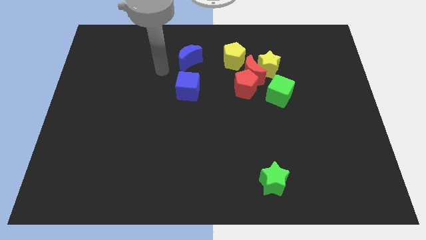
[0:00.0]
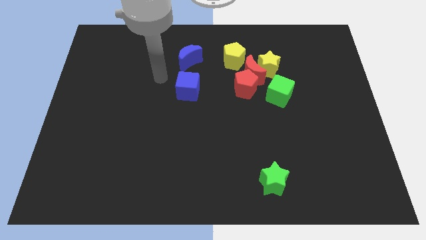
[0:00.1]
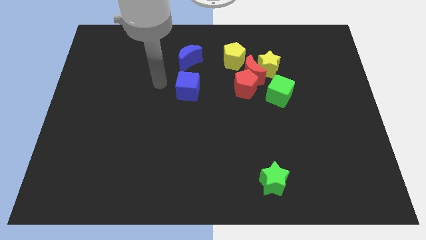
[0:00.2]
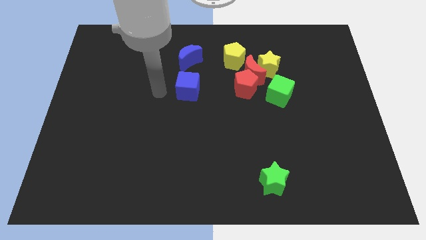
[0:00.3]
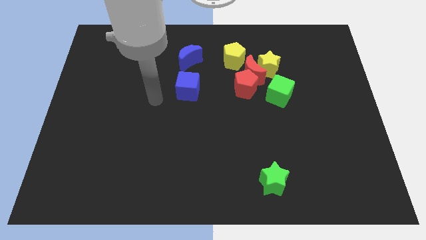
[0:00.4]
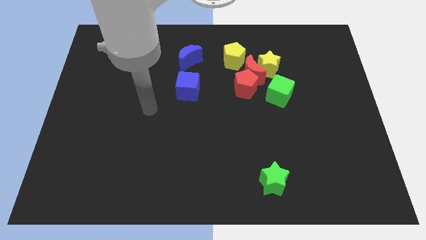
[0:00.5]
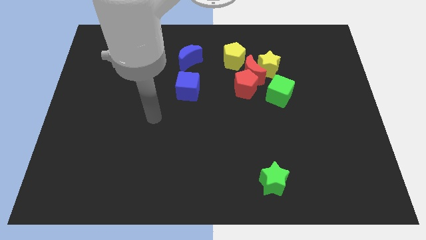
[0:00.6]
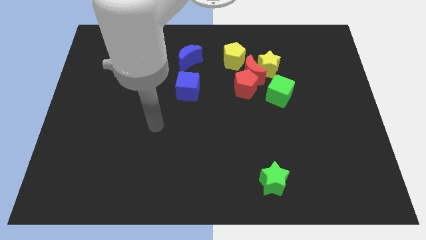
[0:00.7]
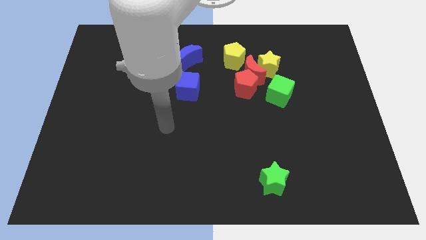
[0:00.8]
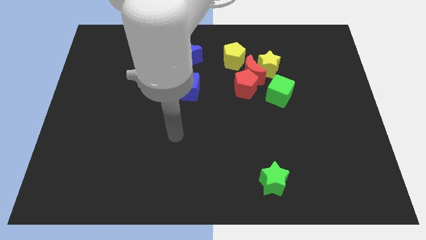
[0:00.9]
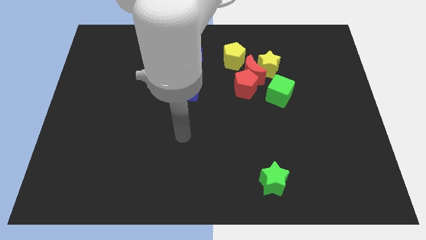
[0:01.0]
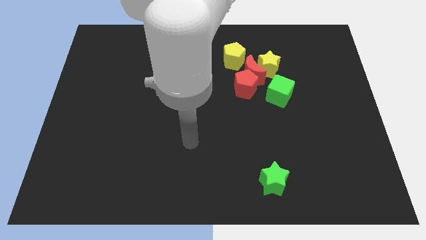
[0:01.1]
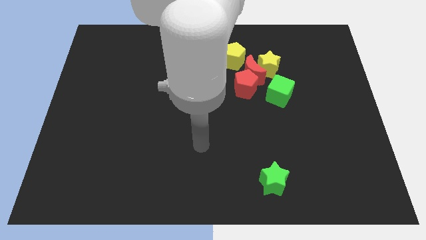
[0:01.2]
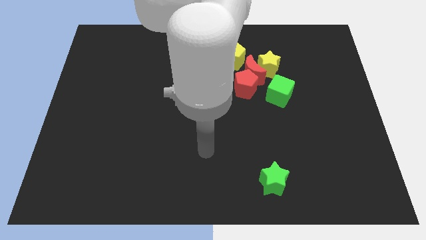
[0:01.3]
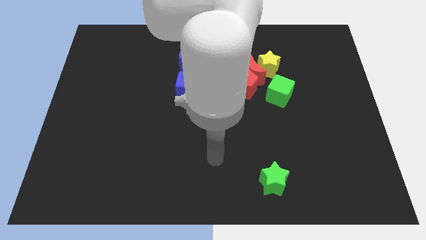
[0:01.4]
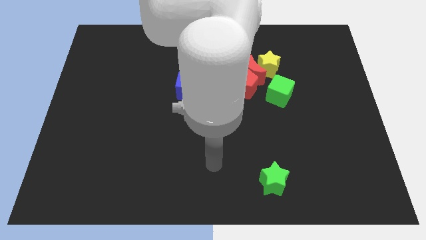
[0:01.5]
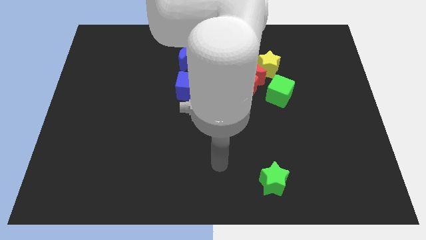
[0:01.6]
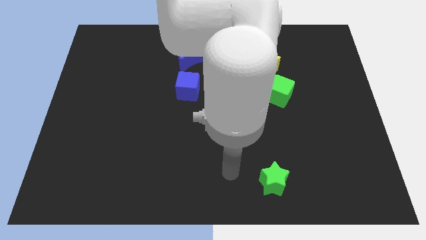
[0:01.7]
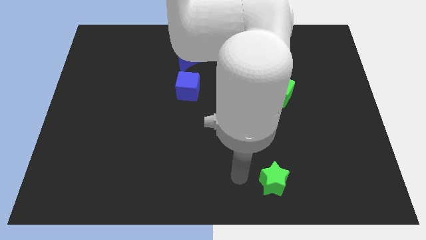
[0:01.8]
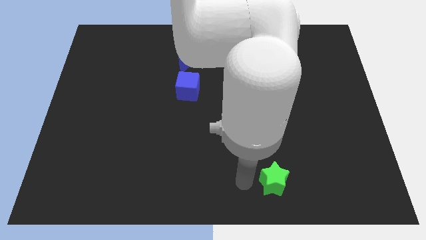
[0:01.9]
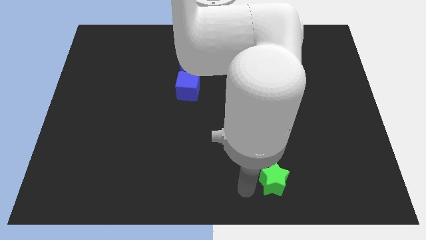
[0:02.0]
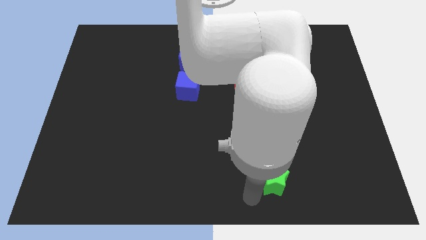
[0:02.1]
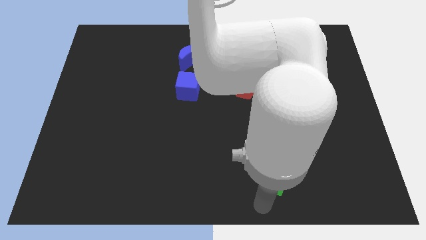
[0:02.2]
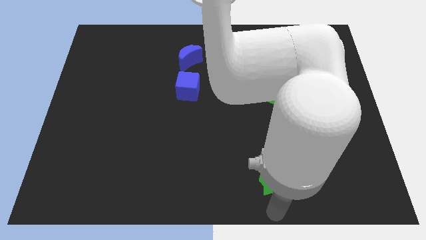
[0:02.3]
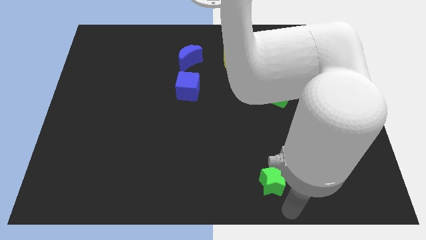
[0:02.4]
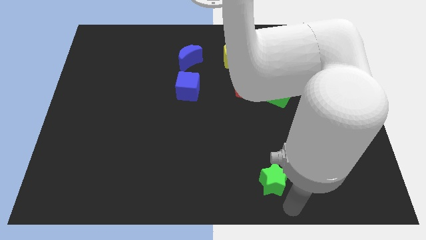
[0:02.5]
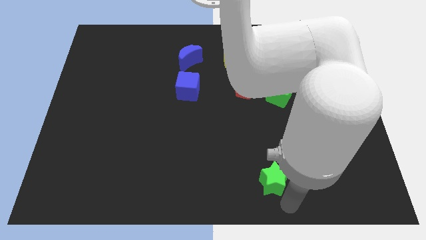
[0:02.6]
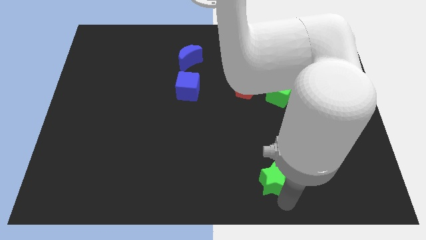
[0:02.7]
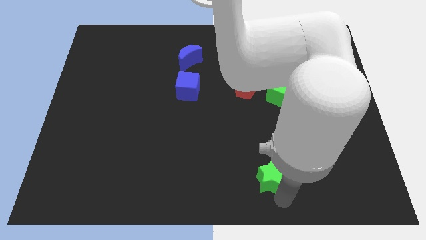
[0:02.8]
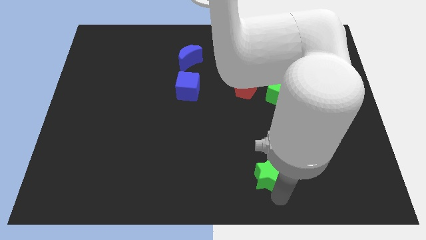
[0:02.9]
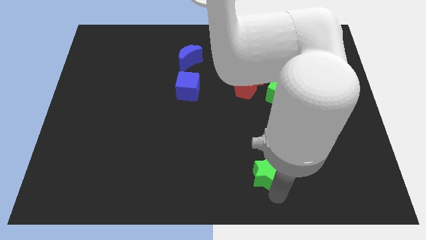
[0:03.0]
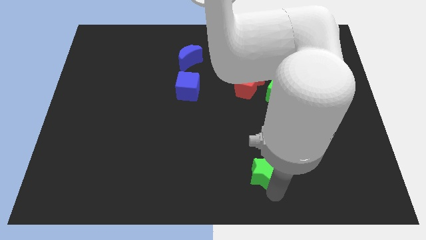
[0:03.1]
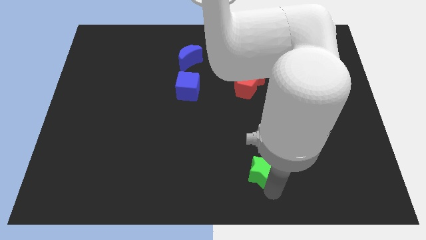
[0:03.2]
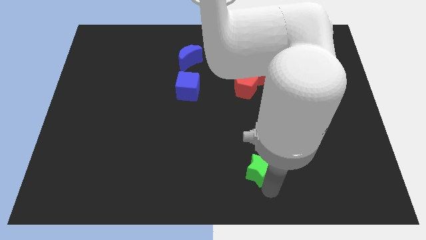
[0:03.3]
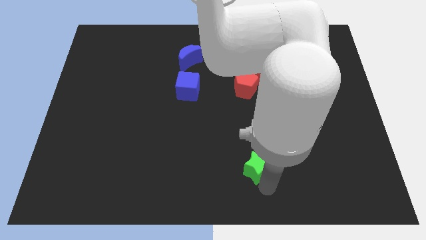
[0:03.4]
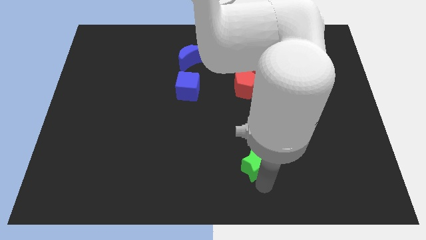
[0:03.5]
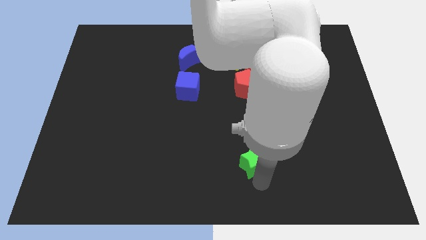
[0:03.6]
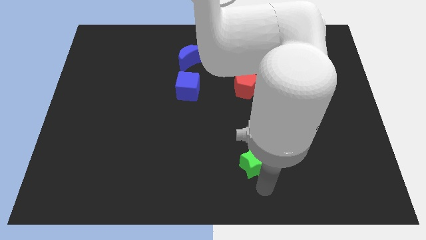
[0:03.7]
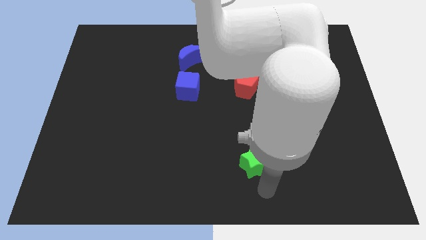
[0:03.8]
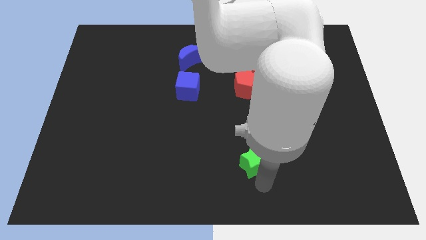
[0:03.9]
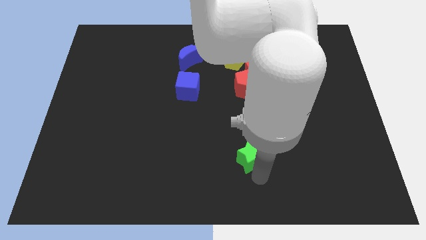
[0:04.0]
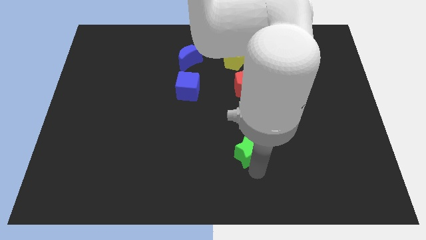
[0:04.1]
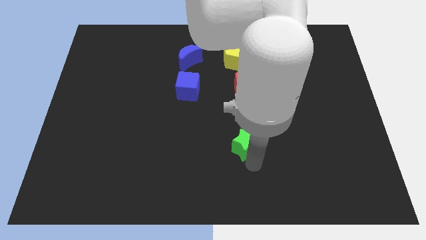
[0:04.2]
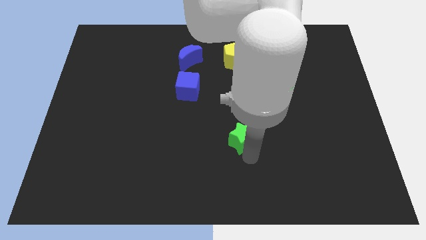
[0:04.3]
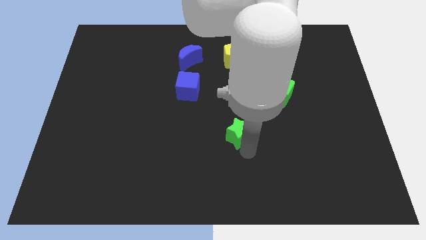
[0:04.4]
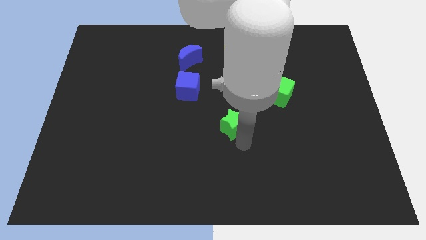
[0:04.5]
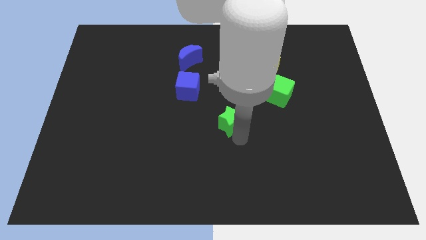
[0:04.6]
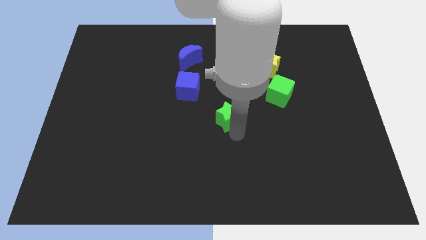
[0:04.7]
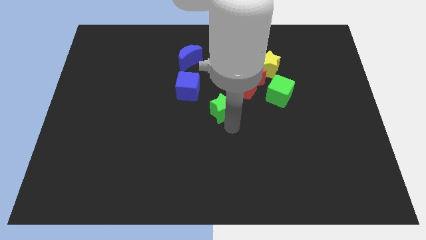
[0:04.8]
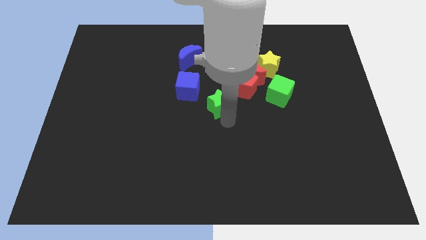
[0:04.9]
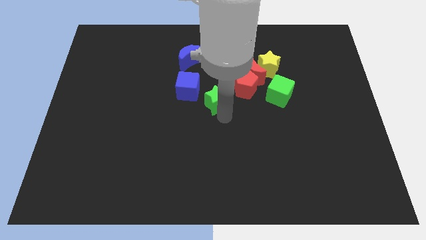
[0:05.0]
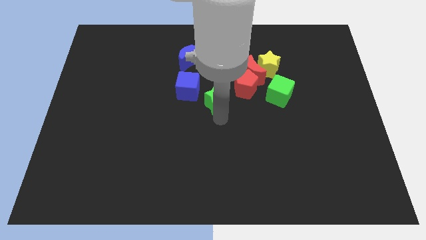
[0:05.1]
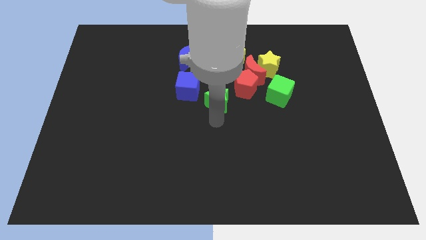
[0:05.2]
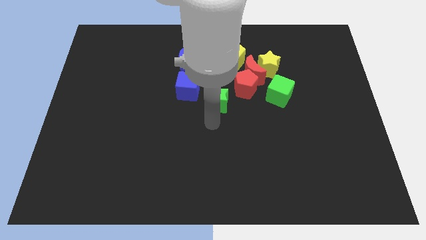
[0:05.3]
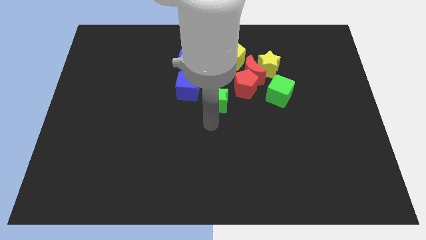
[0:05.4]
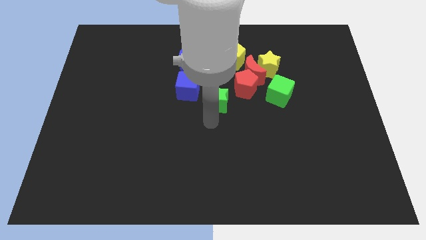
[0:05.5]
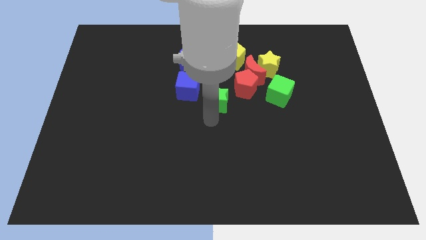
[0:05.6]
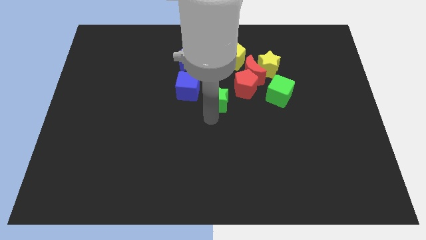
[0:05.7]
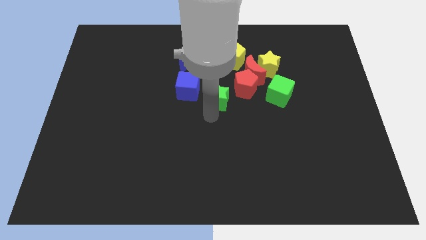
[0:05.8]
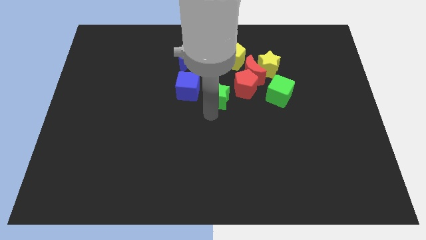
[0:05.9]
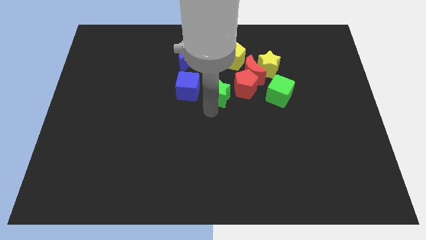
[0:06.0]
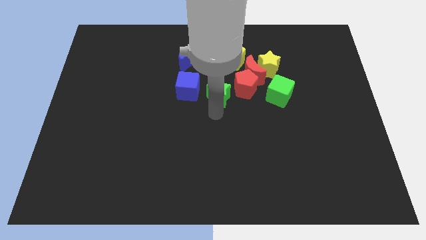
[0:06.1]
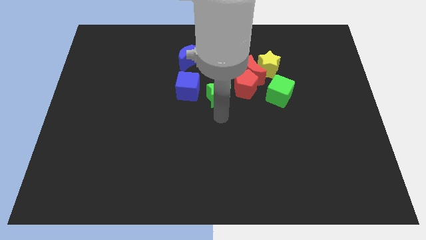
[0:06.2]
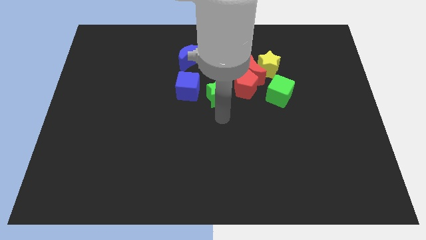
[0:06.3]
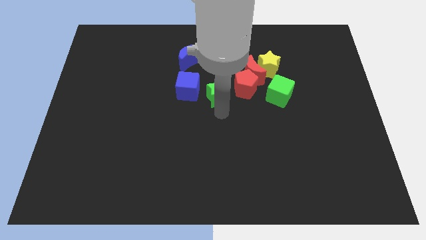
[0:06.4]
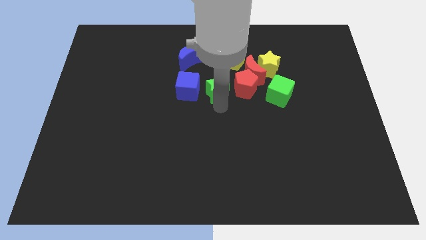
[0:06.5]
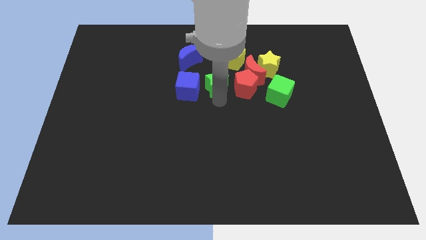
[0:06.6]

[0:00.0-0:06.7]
move the green star to the bottom left side of the yellow pentagon

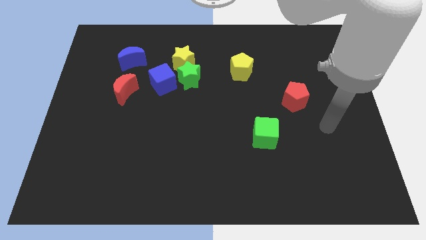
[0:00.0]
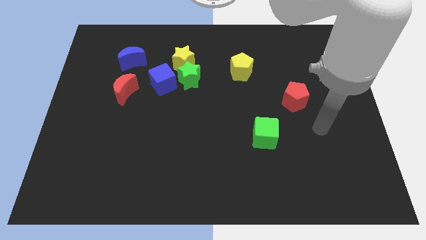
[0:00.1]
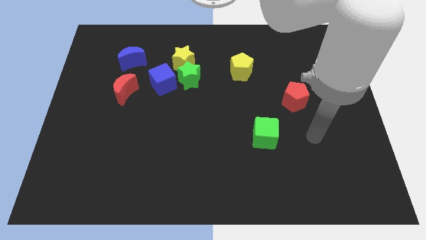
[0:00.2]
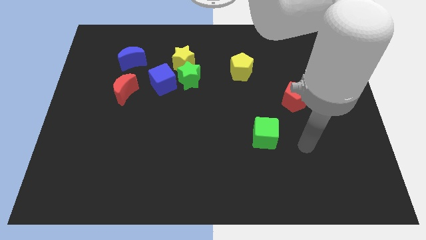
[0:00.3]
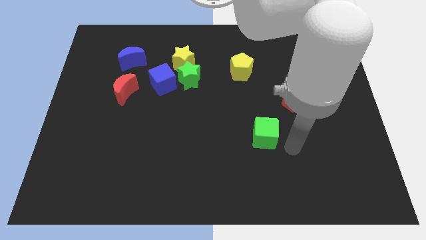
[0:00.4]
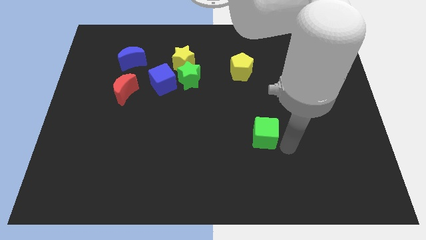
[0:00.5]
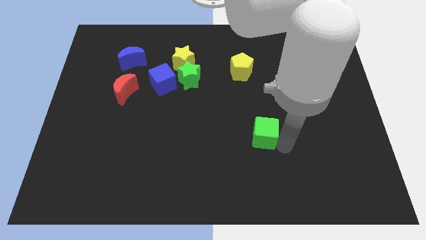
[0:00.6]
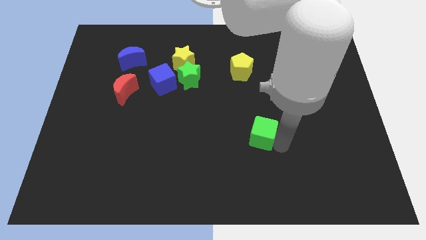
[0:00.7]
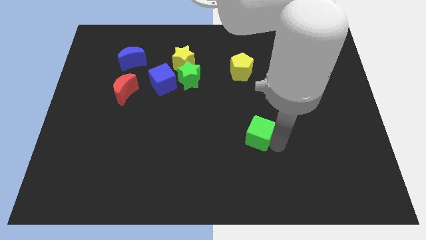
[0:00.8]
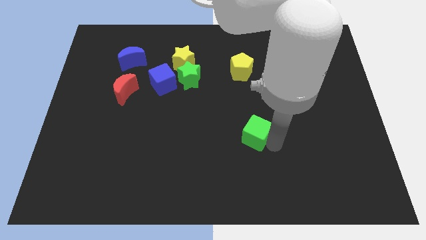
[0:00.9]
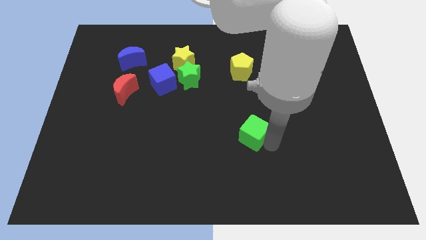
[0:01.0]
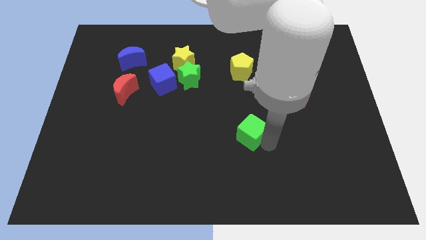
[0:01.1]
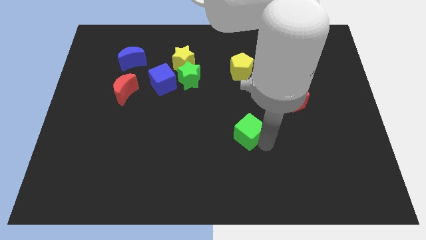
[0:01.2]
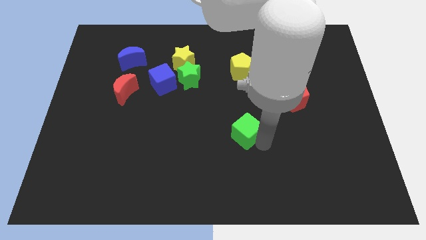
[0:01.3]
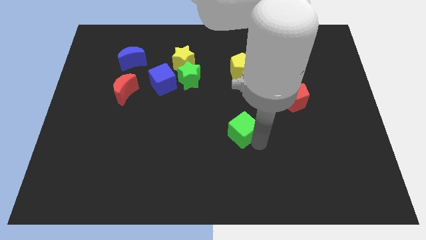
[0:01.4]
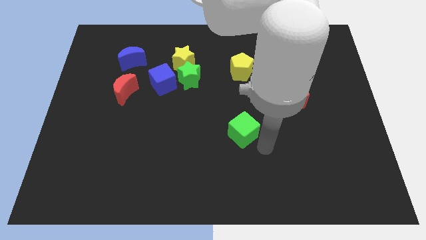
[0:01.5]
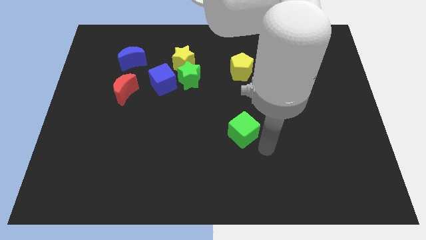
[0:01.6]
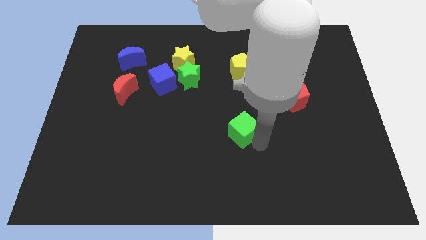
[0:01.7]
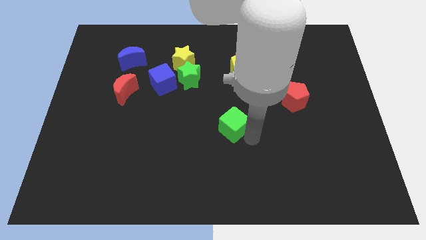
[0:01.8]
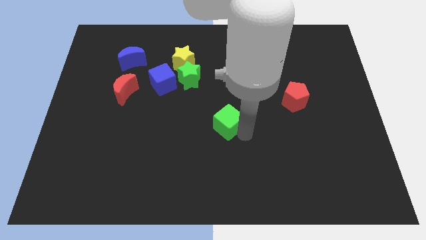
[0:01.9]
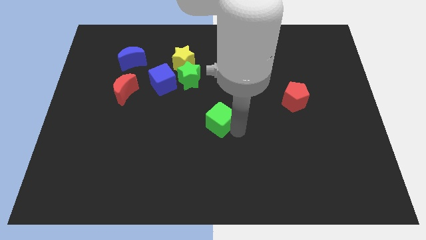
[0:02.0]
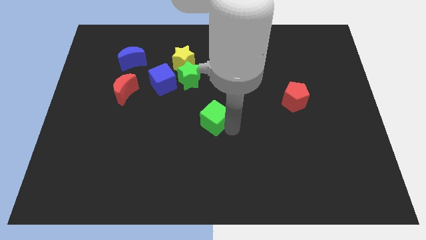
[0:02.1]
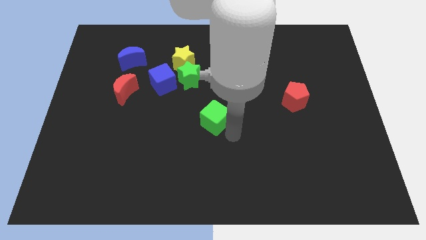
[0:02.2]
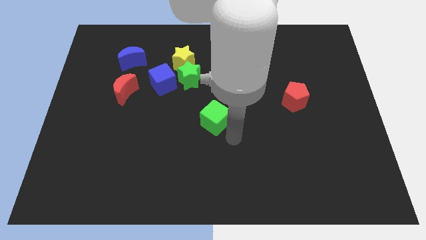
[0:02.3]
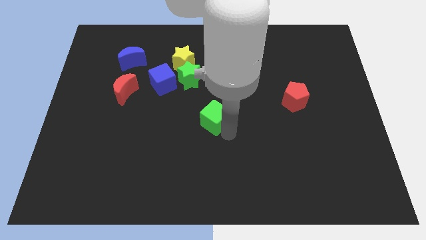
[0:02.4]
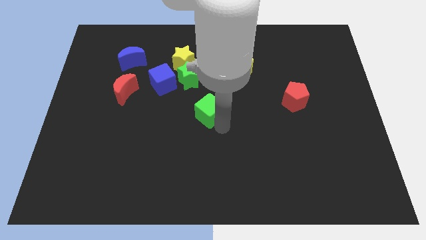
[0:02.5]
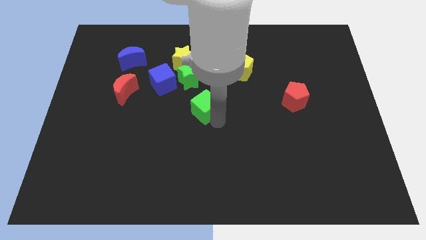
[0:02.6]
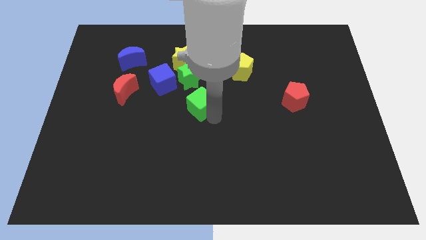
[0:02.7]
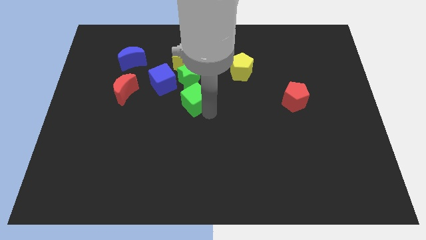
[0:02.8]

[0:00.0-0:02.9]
slide the green cube to the bottom side of the yellow star
